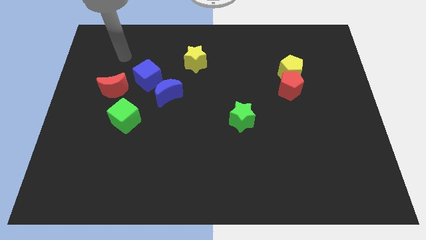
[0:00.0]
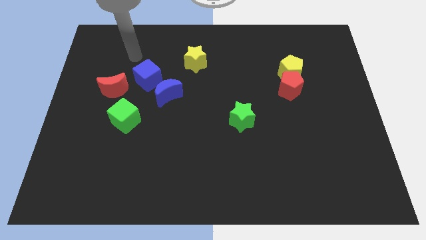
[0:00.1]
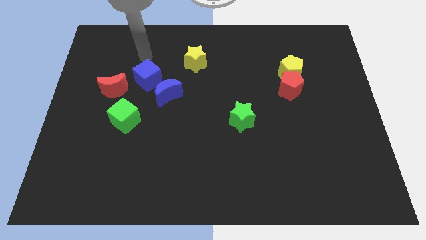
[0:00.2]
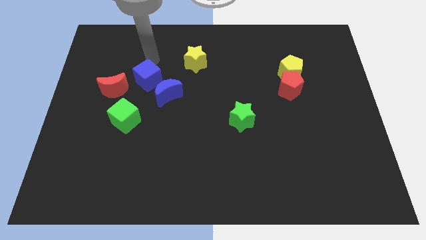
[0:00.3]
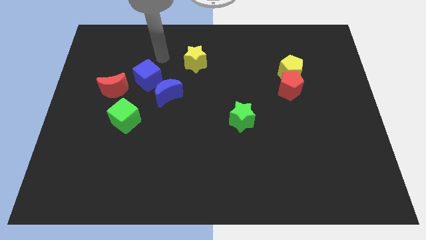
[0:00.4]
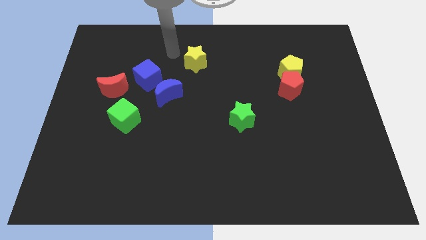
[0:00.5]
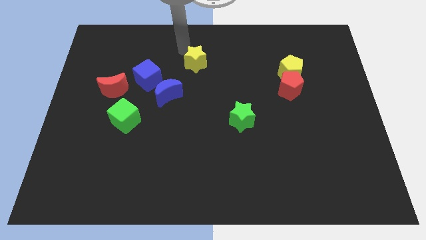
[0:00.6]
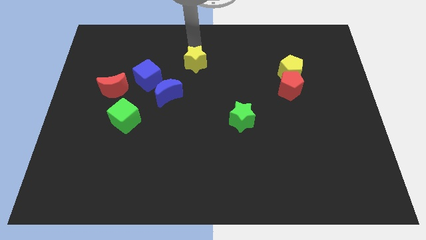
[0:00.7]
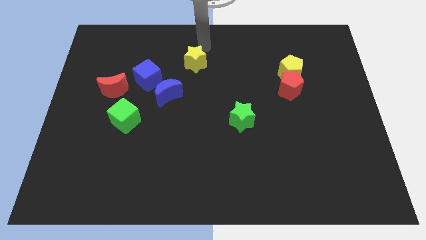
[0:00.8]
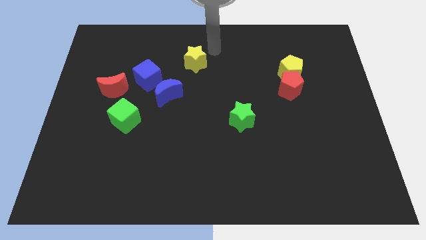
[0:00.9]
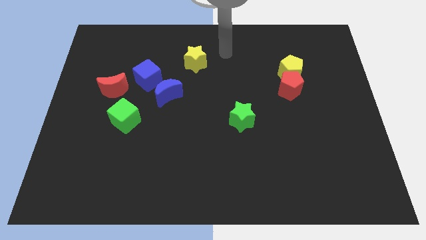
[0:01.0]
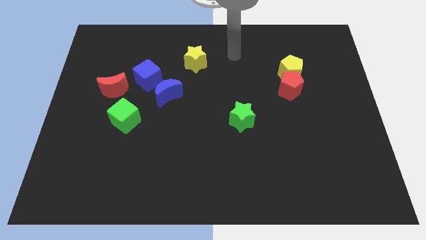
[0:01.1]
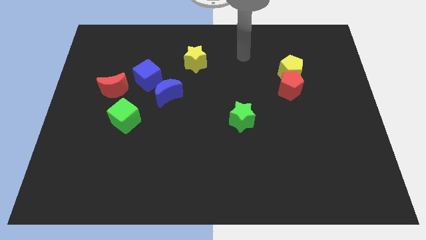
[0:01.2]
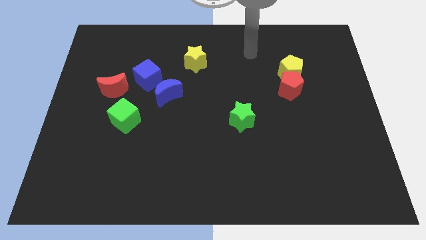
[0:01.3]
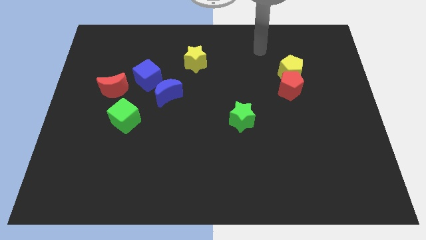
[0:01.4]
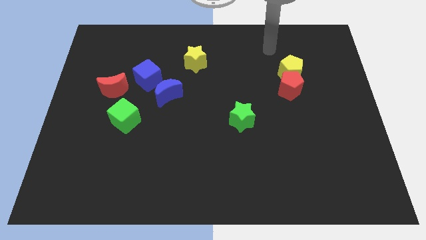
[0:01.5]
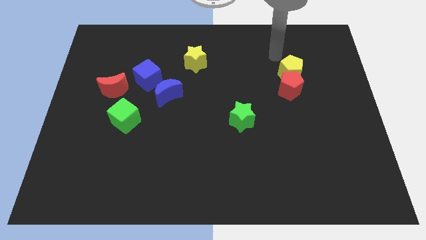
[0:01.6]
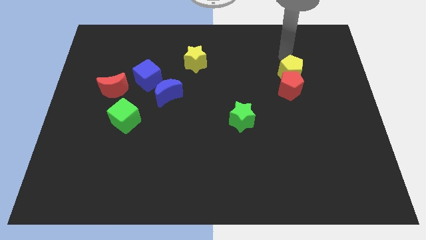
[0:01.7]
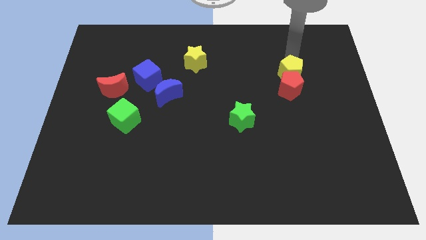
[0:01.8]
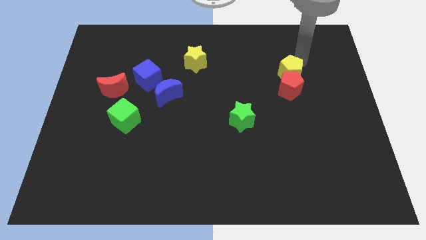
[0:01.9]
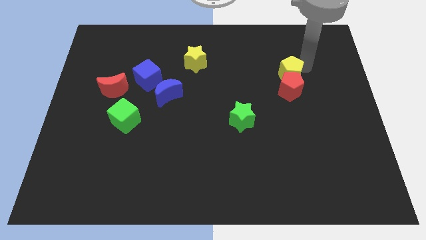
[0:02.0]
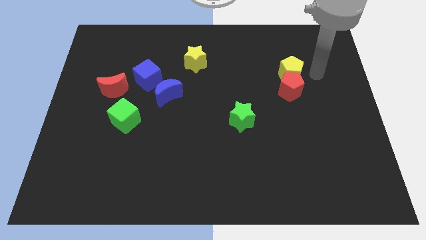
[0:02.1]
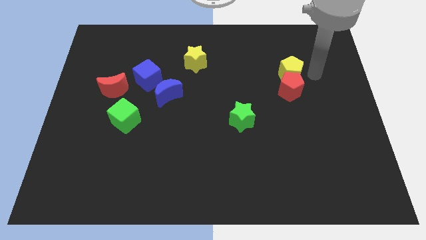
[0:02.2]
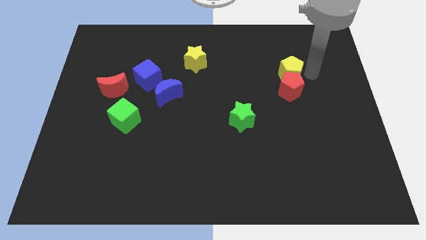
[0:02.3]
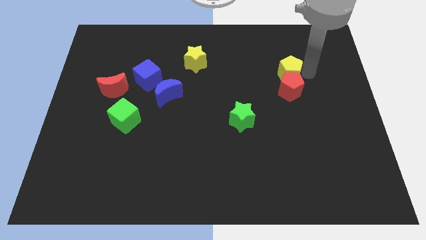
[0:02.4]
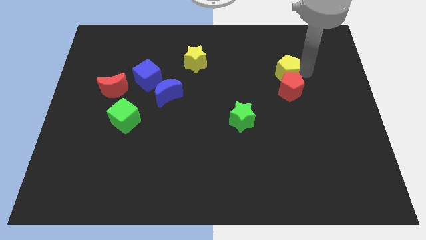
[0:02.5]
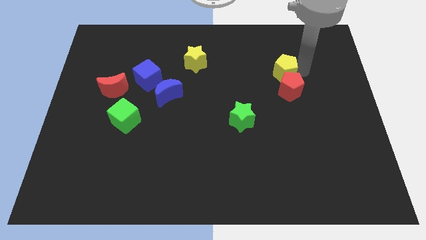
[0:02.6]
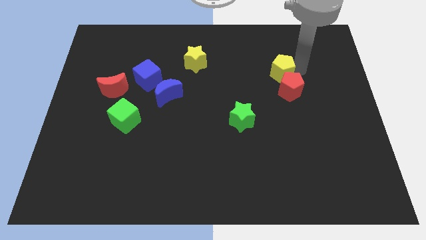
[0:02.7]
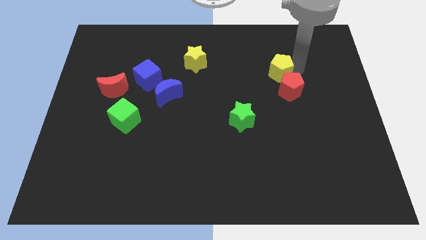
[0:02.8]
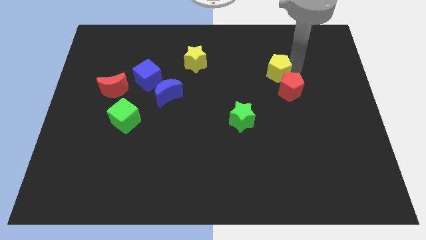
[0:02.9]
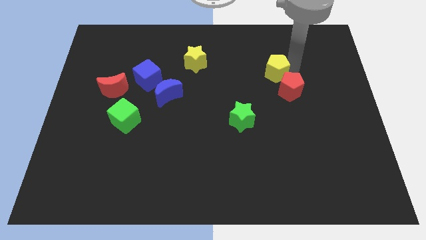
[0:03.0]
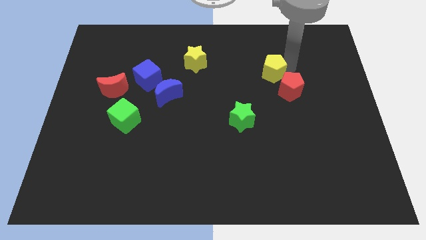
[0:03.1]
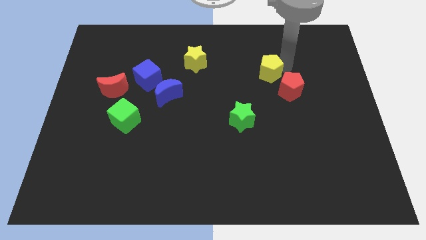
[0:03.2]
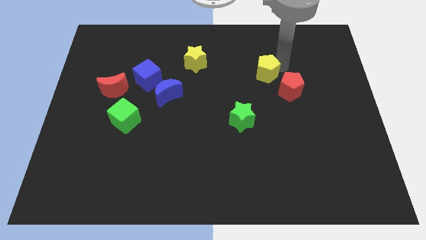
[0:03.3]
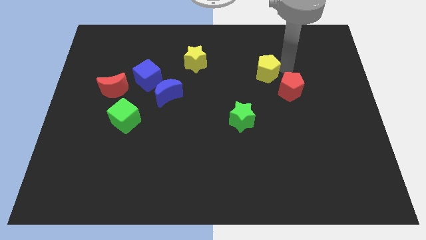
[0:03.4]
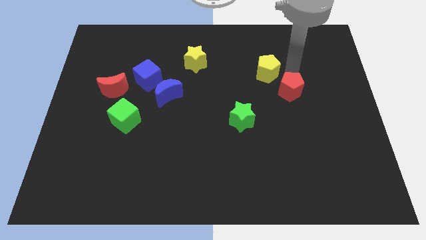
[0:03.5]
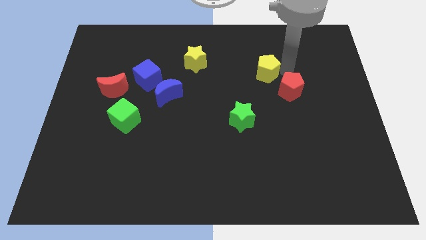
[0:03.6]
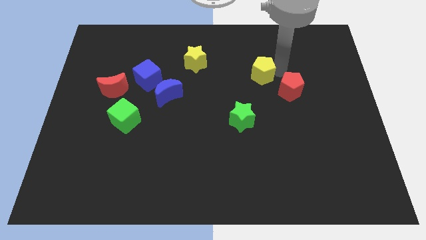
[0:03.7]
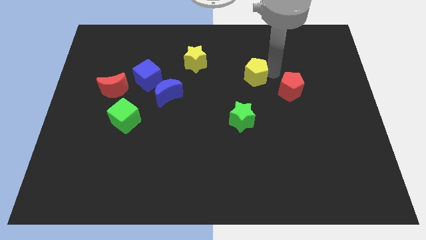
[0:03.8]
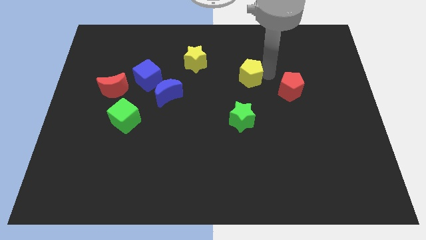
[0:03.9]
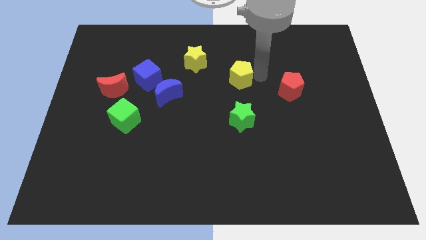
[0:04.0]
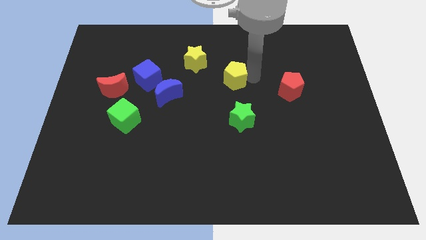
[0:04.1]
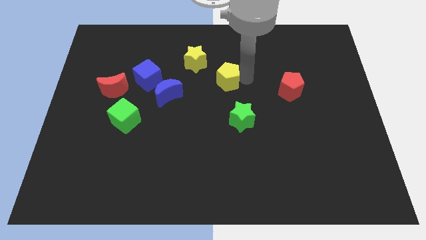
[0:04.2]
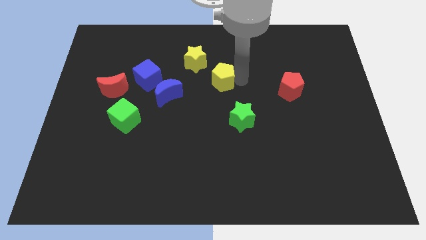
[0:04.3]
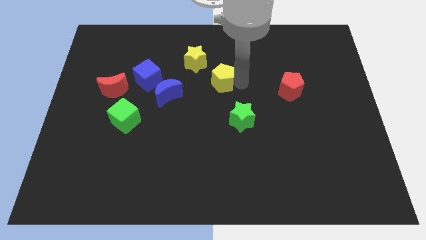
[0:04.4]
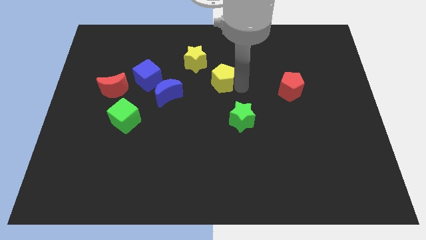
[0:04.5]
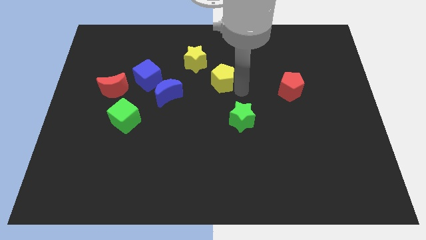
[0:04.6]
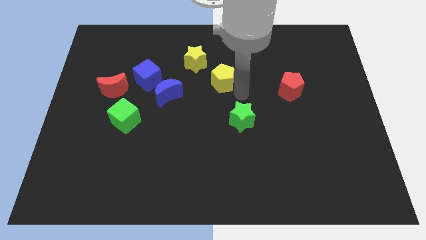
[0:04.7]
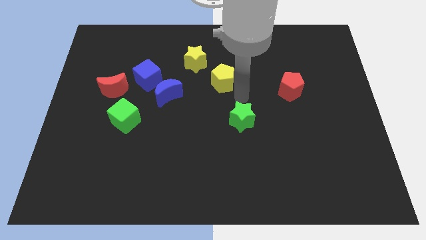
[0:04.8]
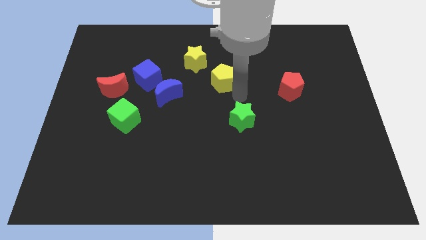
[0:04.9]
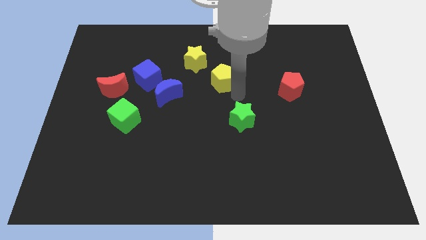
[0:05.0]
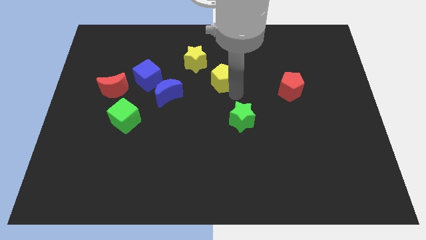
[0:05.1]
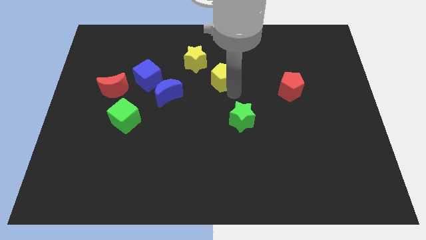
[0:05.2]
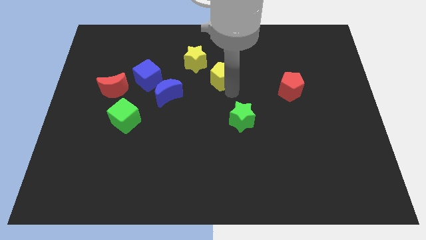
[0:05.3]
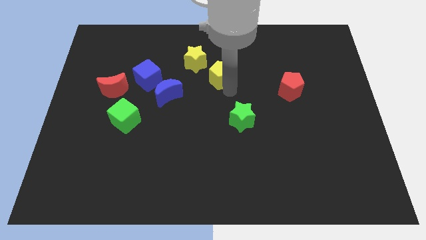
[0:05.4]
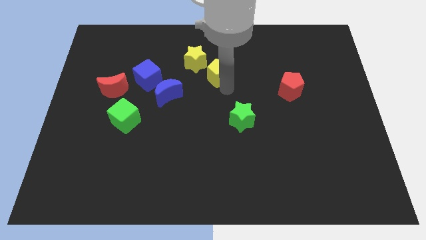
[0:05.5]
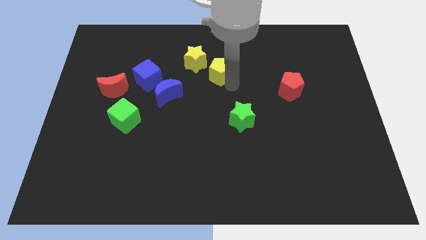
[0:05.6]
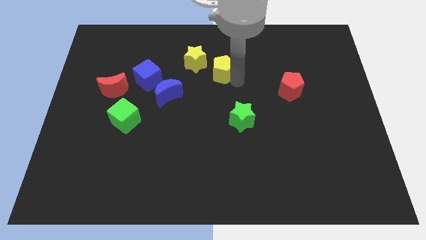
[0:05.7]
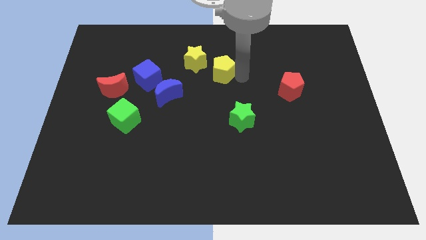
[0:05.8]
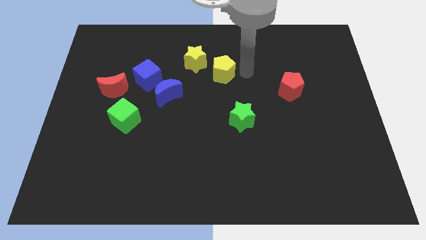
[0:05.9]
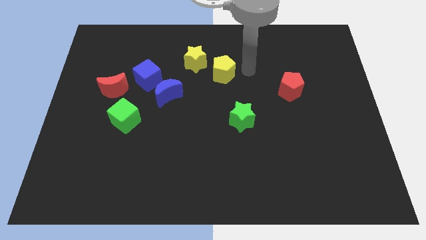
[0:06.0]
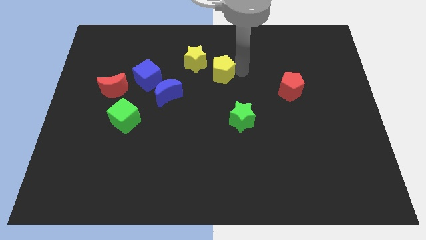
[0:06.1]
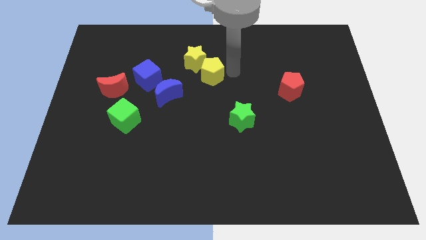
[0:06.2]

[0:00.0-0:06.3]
push the yellow pentagon to the left

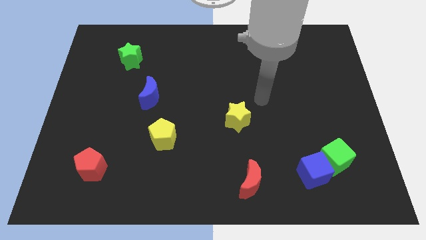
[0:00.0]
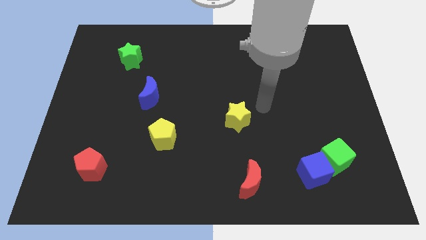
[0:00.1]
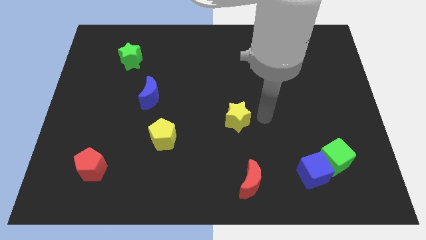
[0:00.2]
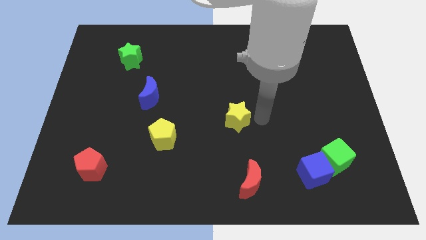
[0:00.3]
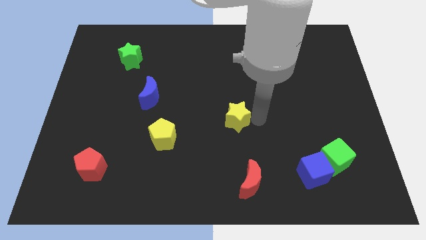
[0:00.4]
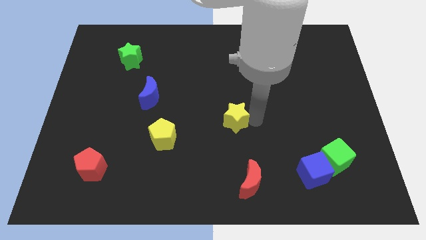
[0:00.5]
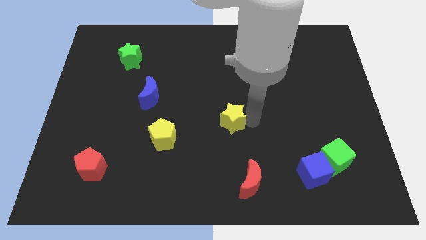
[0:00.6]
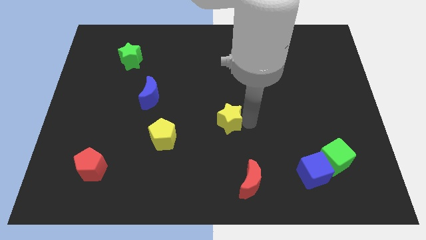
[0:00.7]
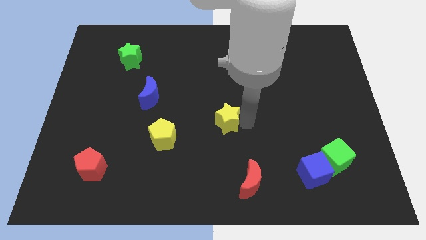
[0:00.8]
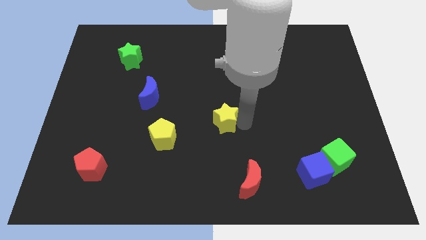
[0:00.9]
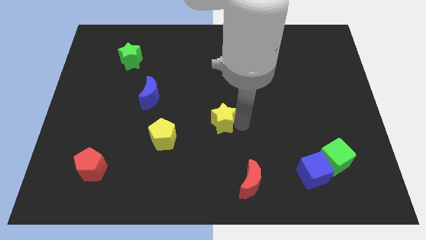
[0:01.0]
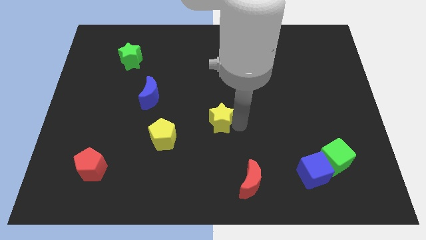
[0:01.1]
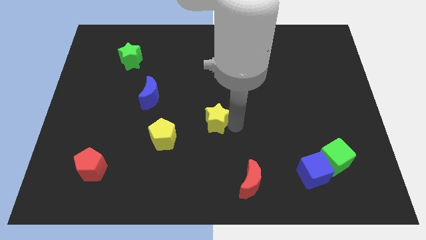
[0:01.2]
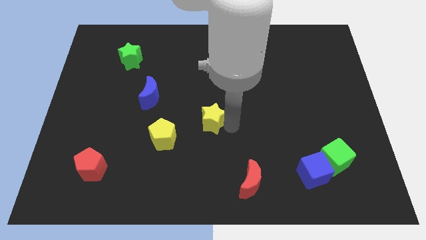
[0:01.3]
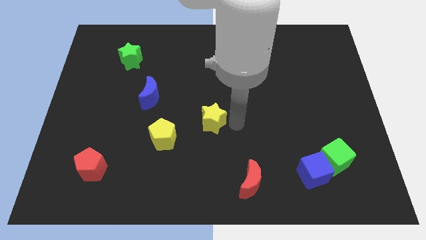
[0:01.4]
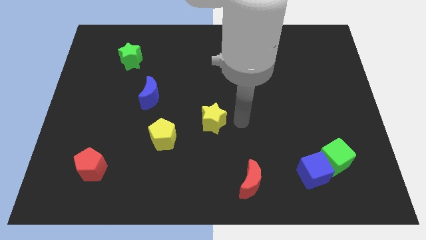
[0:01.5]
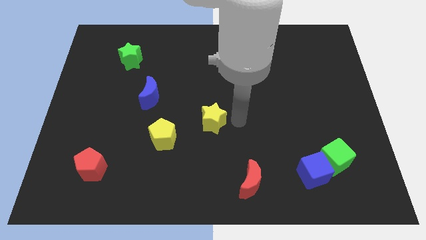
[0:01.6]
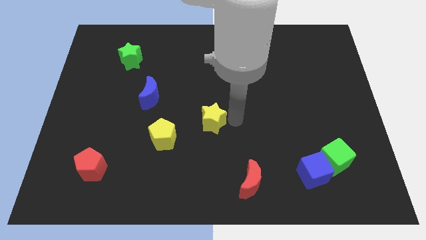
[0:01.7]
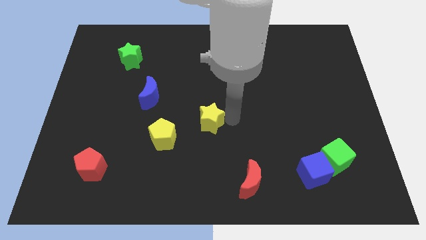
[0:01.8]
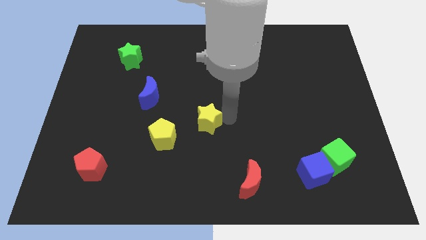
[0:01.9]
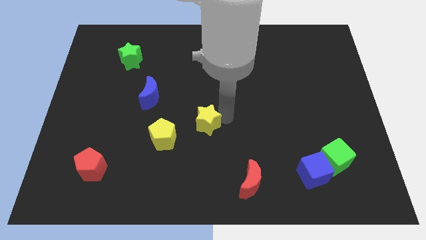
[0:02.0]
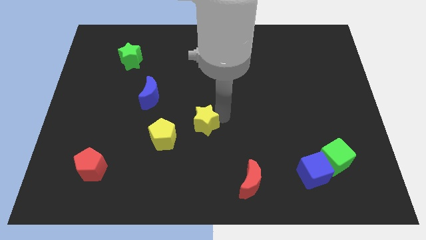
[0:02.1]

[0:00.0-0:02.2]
slide the yellow star left a little bit
